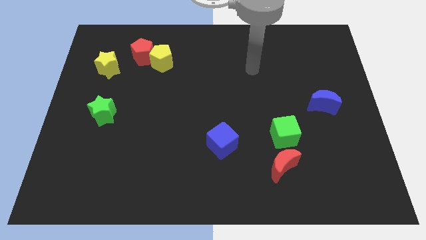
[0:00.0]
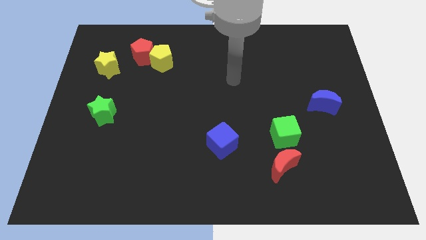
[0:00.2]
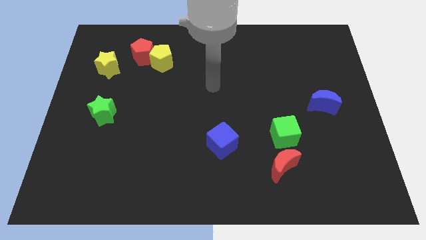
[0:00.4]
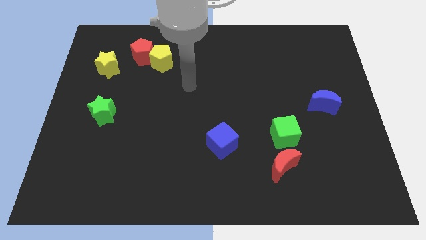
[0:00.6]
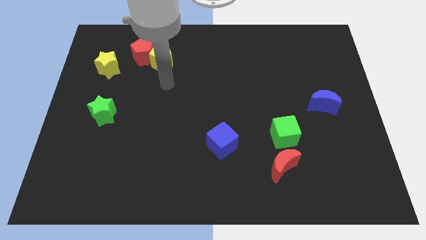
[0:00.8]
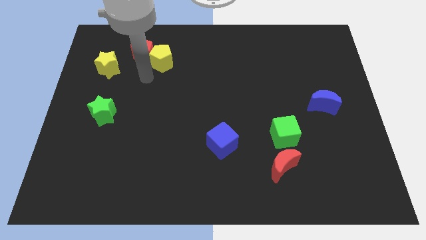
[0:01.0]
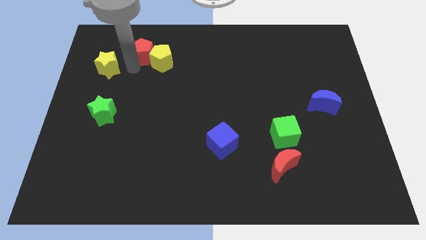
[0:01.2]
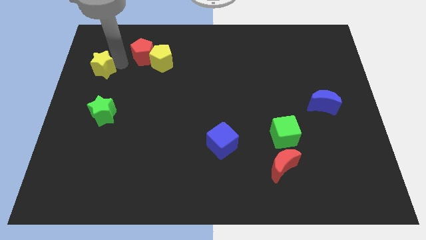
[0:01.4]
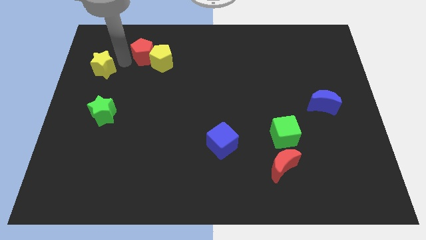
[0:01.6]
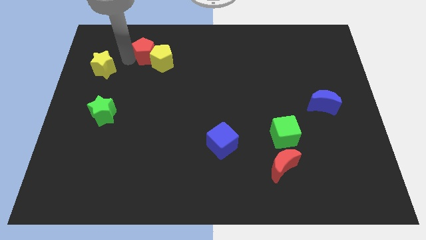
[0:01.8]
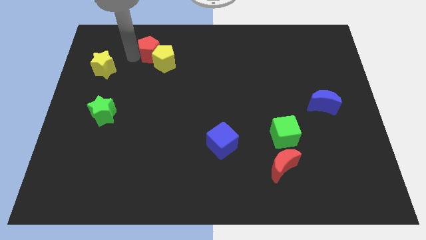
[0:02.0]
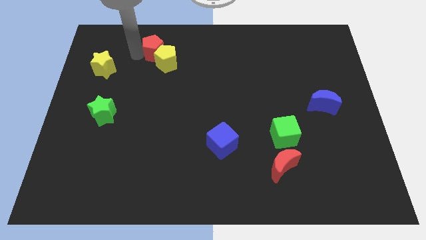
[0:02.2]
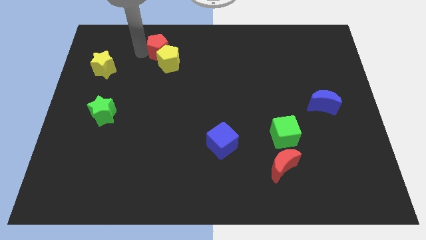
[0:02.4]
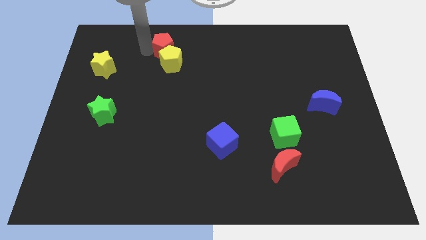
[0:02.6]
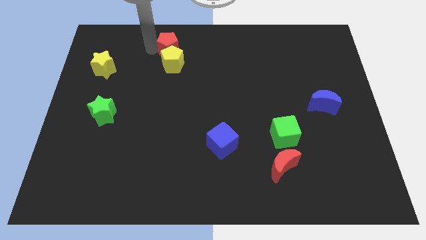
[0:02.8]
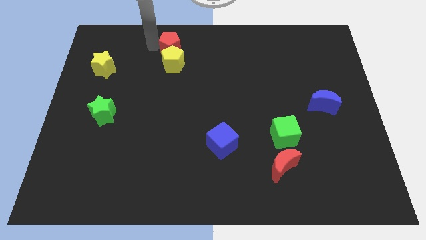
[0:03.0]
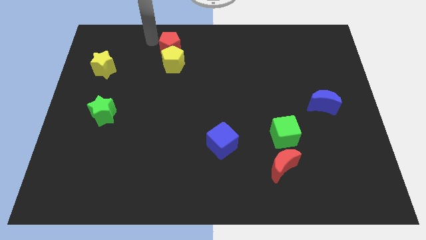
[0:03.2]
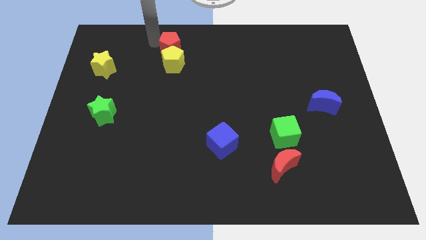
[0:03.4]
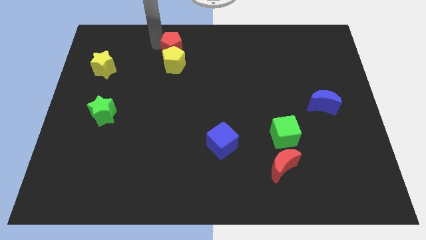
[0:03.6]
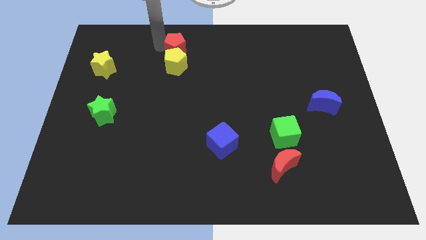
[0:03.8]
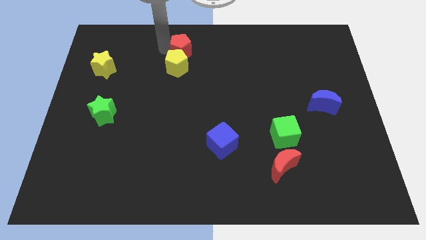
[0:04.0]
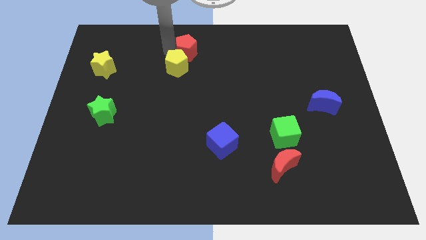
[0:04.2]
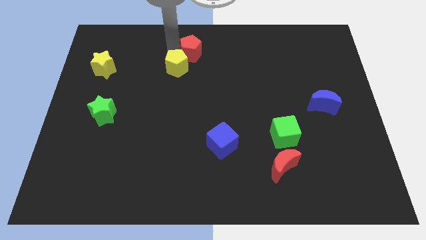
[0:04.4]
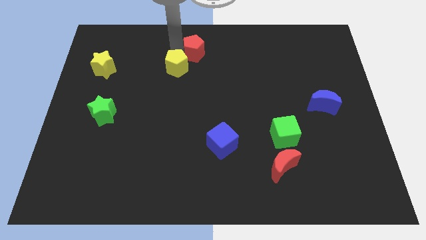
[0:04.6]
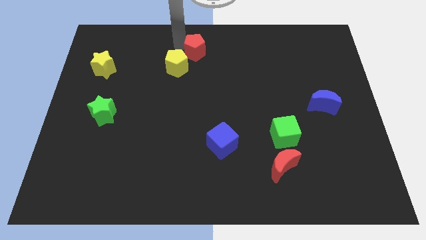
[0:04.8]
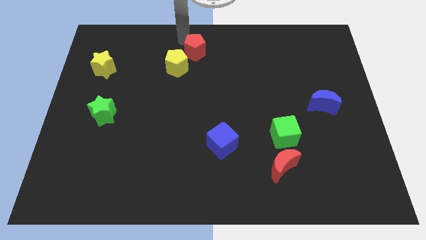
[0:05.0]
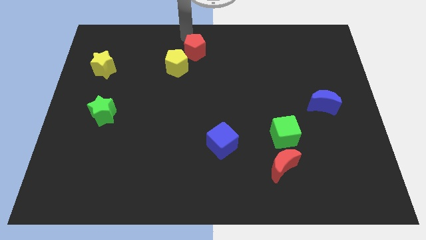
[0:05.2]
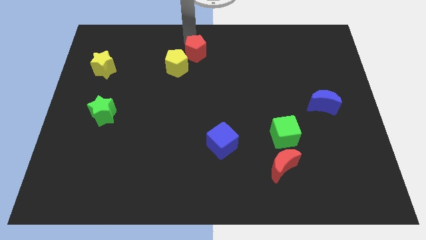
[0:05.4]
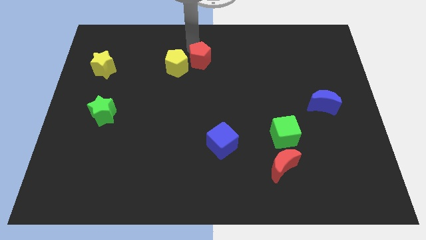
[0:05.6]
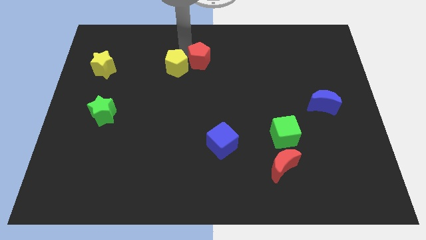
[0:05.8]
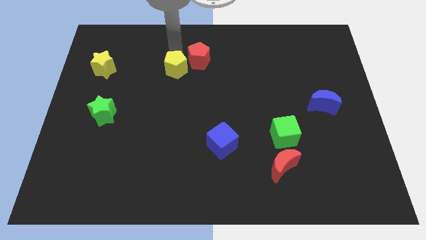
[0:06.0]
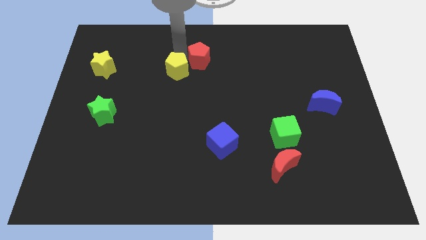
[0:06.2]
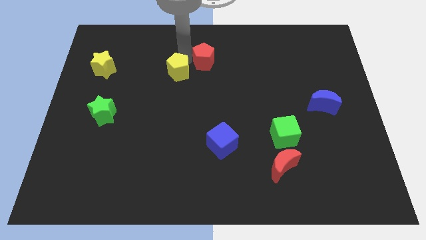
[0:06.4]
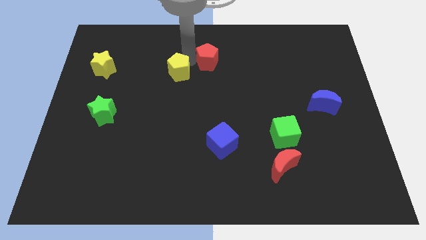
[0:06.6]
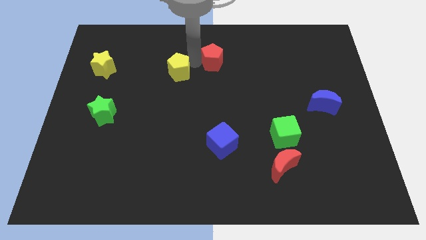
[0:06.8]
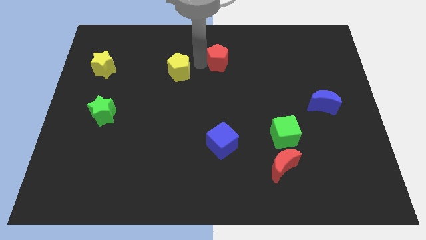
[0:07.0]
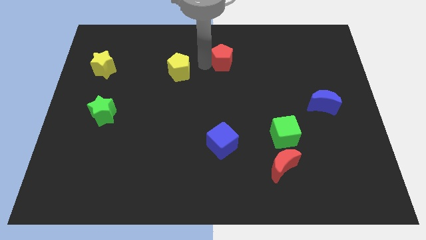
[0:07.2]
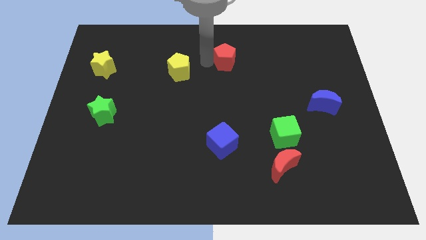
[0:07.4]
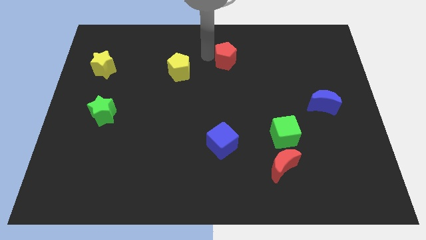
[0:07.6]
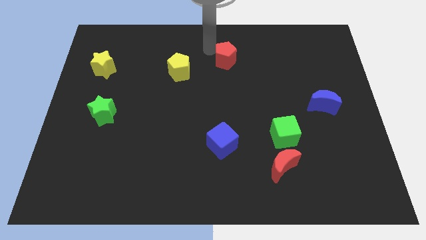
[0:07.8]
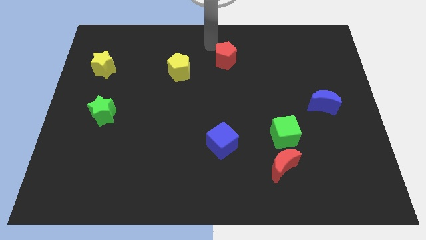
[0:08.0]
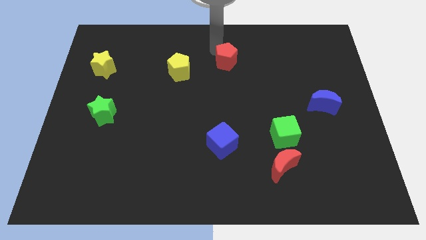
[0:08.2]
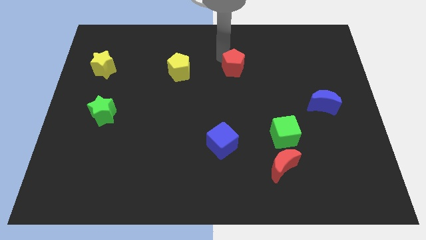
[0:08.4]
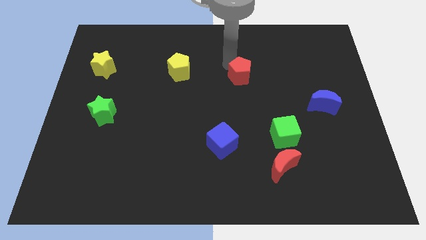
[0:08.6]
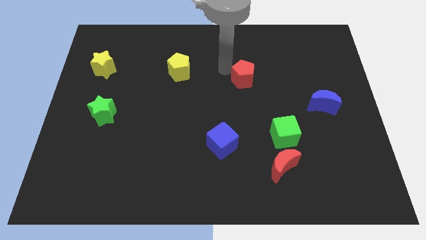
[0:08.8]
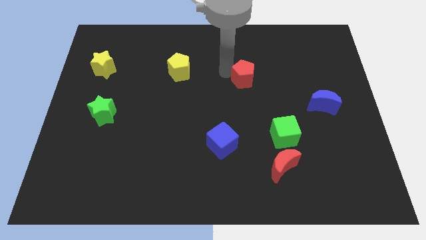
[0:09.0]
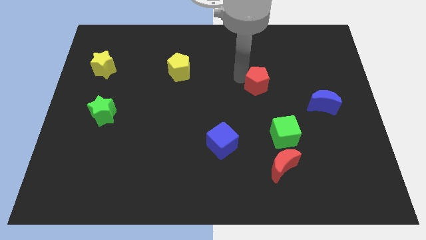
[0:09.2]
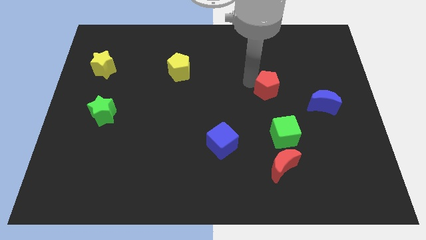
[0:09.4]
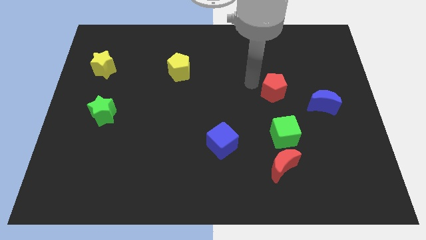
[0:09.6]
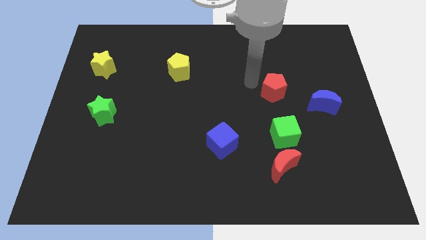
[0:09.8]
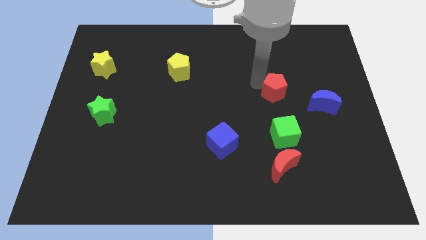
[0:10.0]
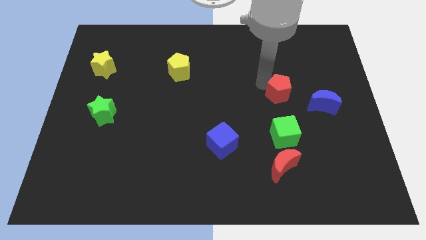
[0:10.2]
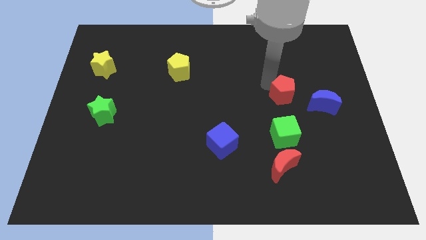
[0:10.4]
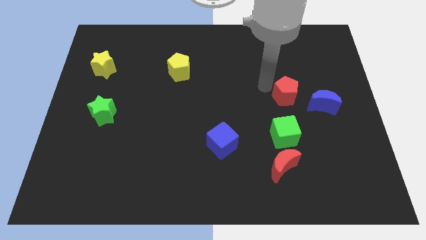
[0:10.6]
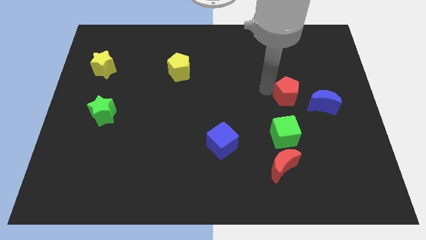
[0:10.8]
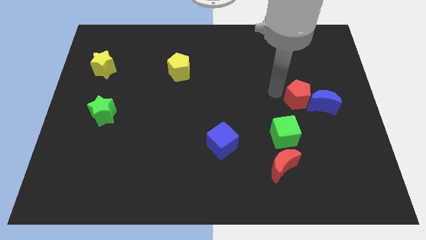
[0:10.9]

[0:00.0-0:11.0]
put the red pentagon next to the blue moon

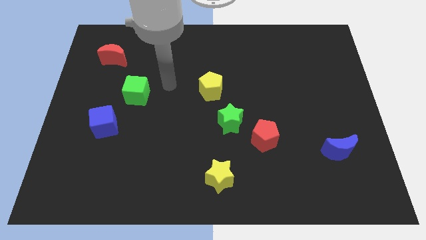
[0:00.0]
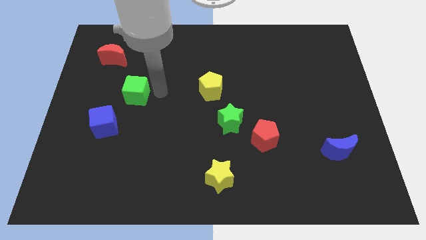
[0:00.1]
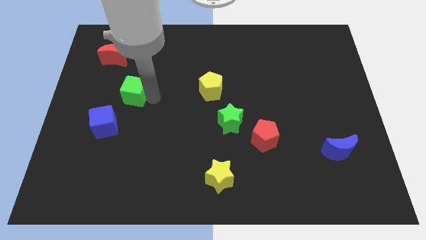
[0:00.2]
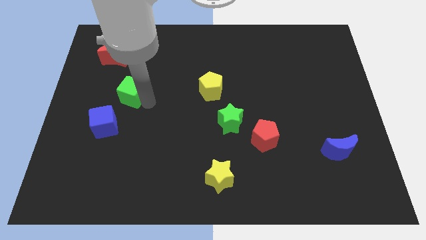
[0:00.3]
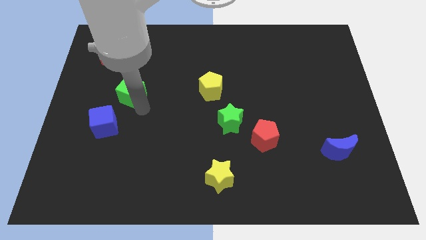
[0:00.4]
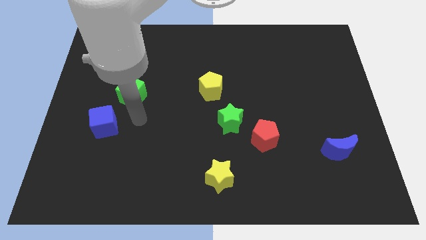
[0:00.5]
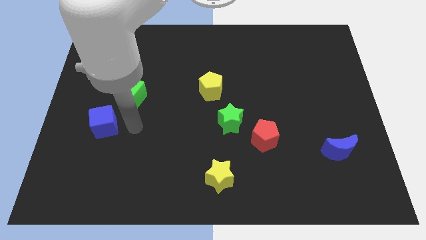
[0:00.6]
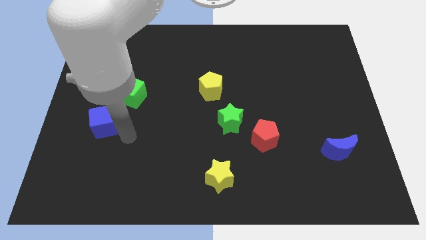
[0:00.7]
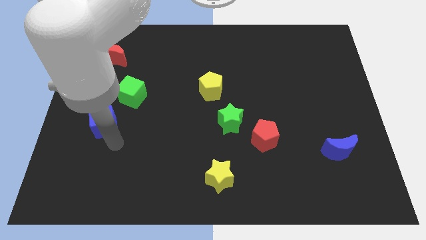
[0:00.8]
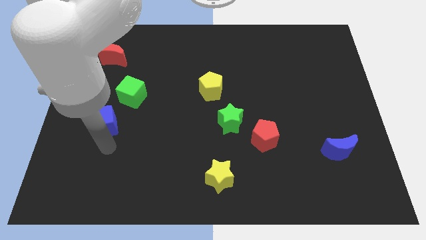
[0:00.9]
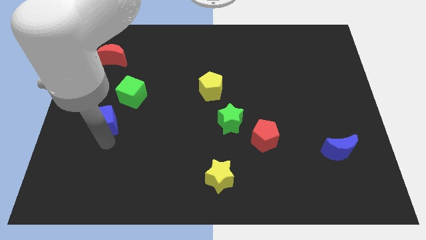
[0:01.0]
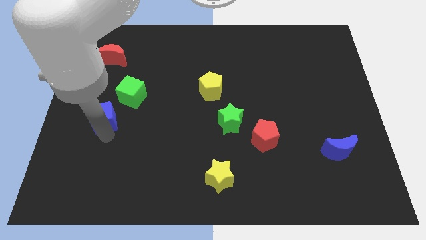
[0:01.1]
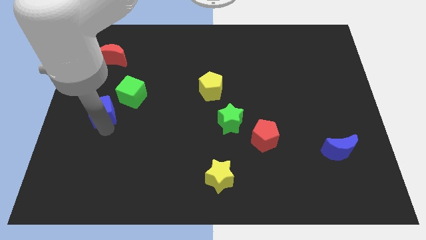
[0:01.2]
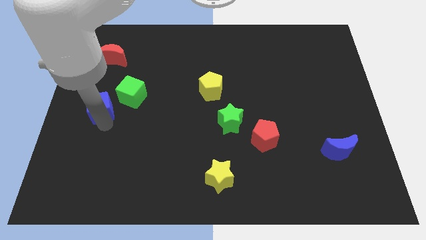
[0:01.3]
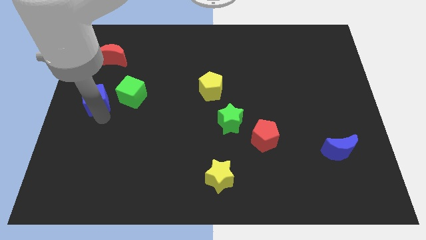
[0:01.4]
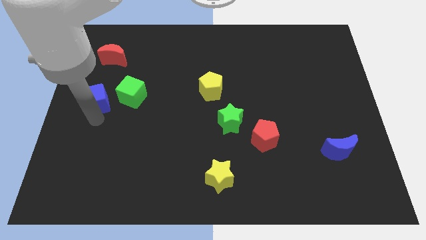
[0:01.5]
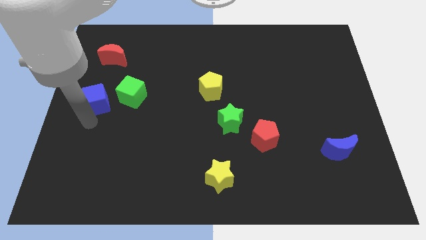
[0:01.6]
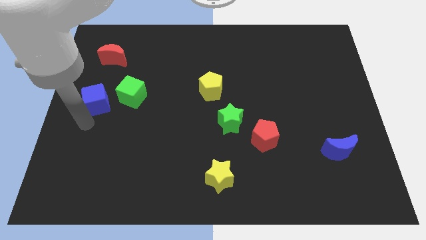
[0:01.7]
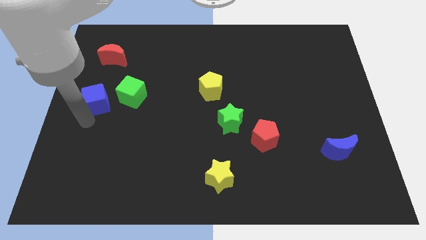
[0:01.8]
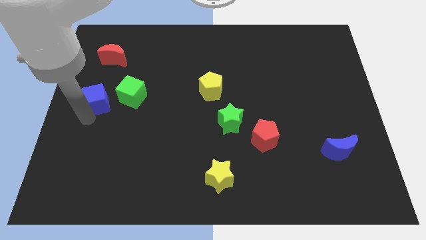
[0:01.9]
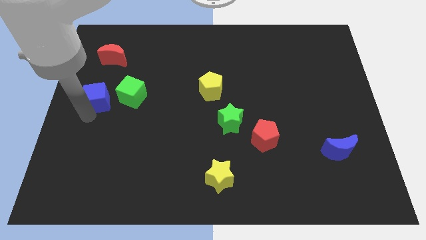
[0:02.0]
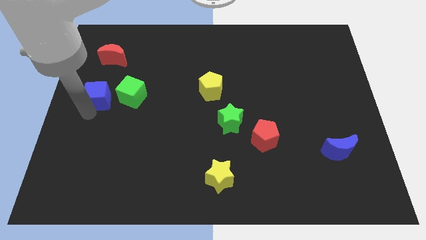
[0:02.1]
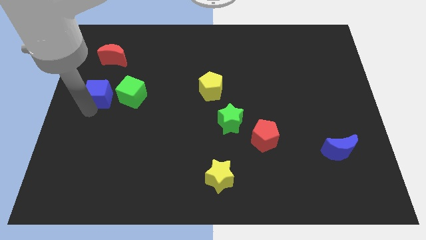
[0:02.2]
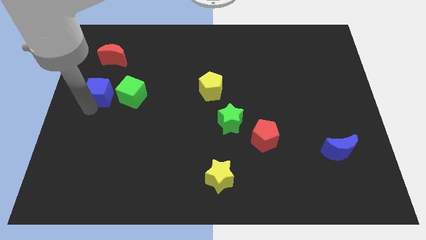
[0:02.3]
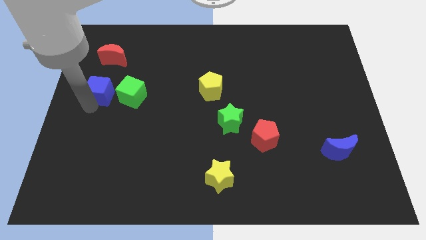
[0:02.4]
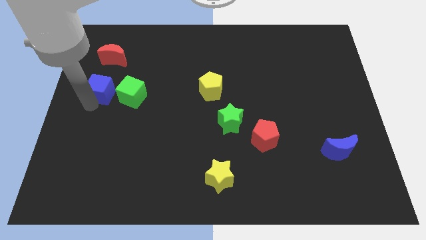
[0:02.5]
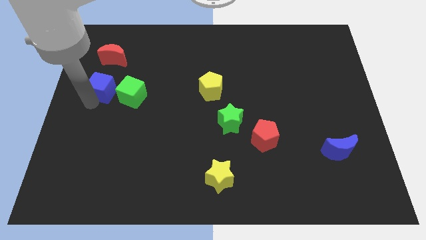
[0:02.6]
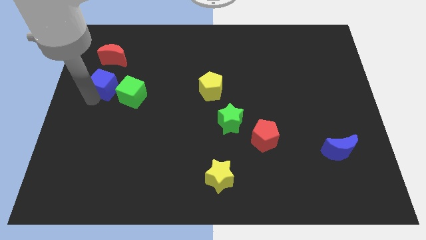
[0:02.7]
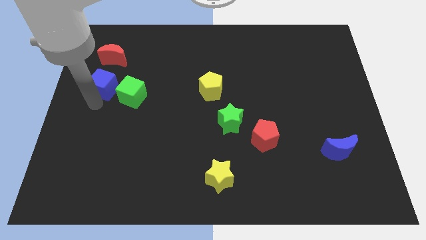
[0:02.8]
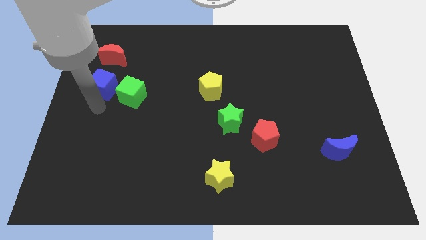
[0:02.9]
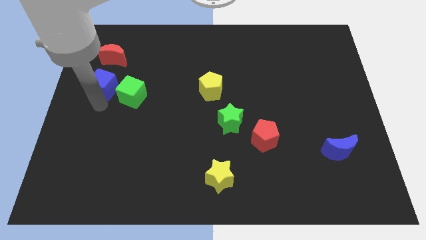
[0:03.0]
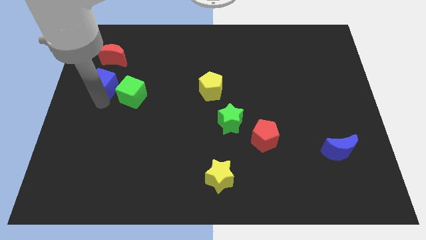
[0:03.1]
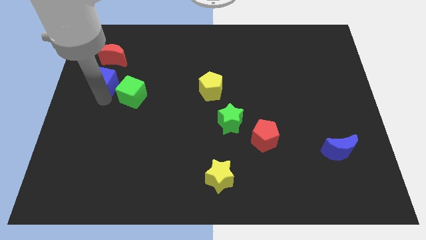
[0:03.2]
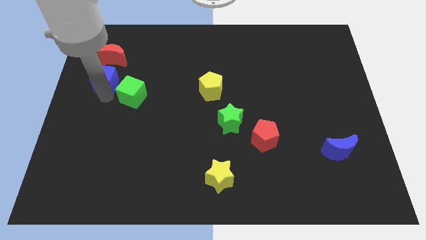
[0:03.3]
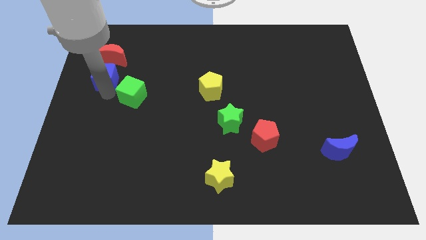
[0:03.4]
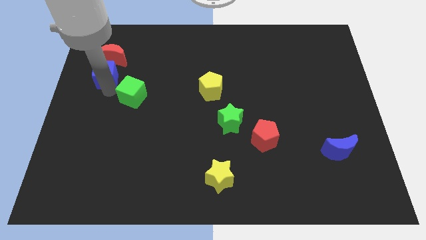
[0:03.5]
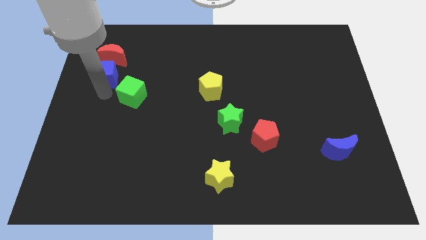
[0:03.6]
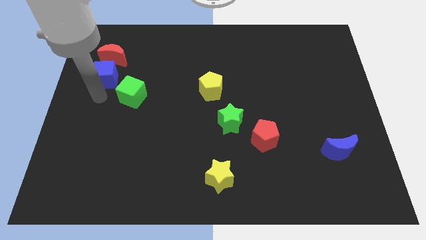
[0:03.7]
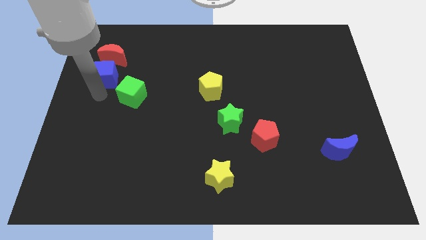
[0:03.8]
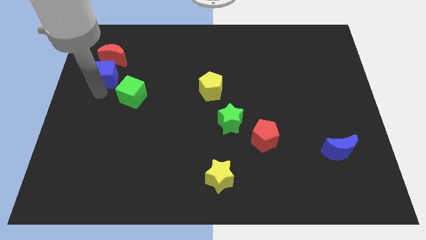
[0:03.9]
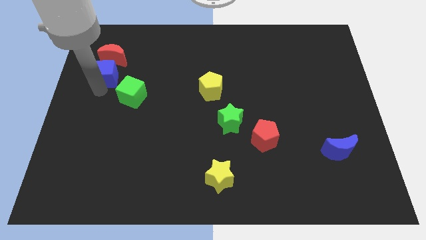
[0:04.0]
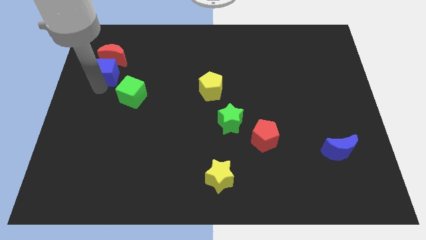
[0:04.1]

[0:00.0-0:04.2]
slide the blue cube close to the red moon
